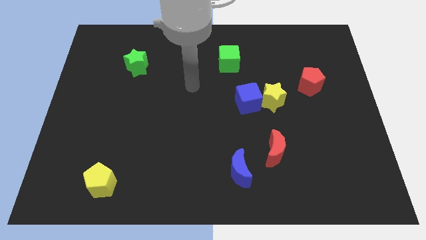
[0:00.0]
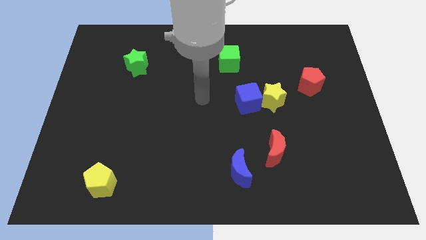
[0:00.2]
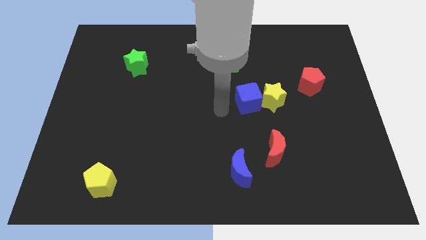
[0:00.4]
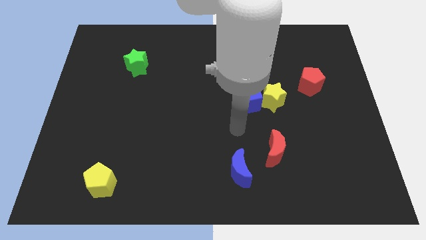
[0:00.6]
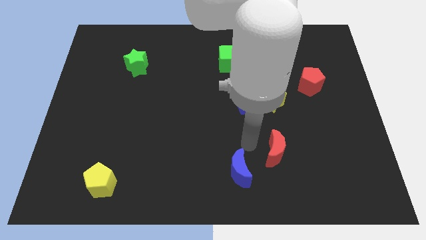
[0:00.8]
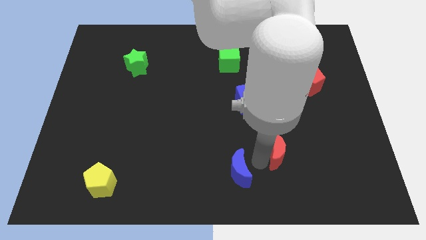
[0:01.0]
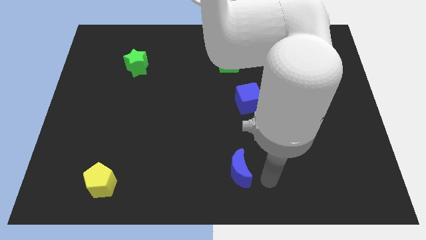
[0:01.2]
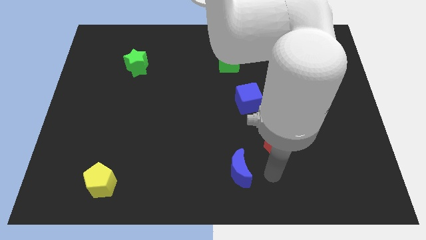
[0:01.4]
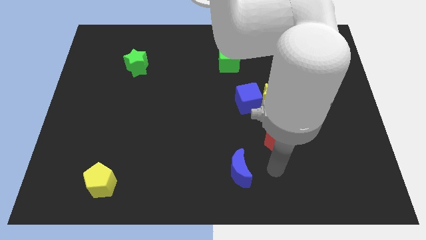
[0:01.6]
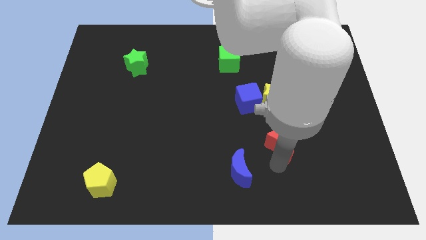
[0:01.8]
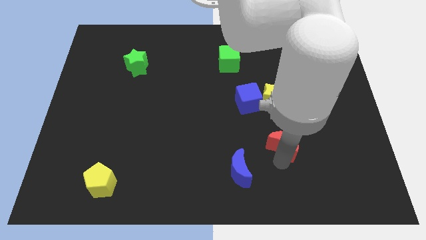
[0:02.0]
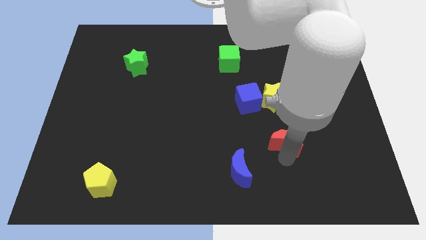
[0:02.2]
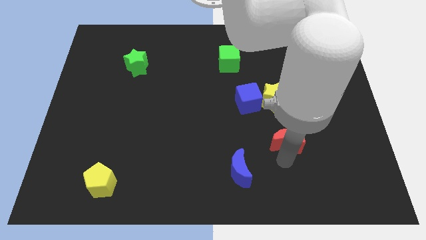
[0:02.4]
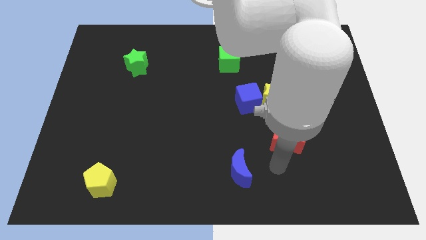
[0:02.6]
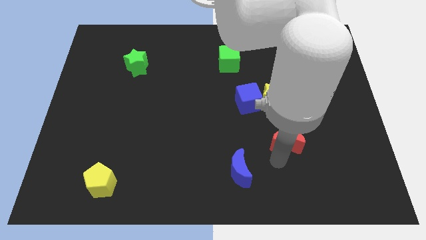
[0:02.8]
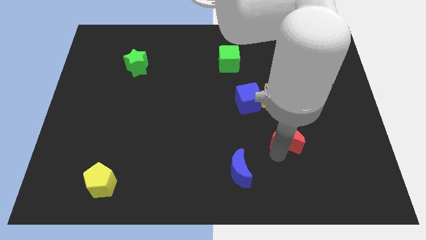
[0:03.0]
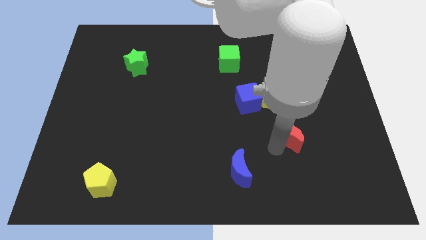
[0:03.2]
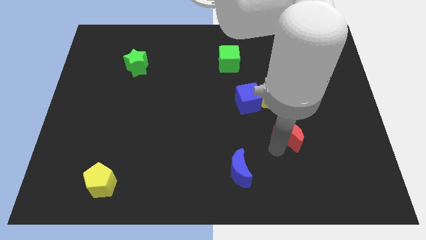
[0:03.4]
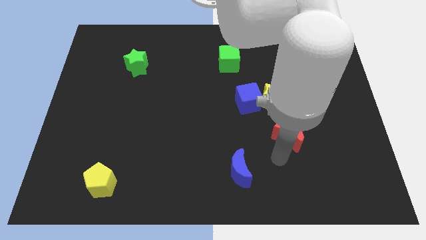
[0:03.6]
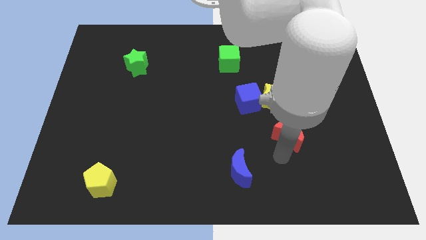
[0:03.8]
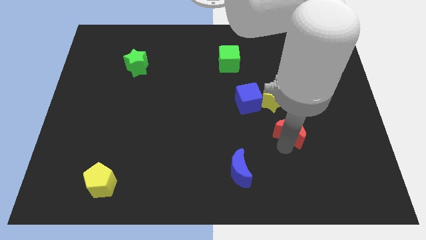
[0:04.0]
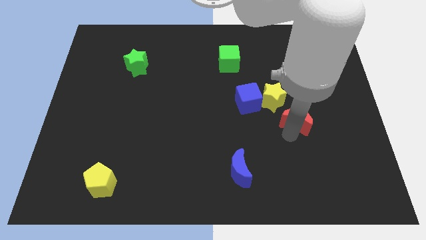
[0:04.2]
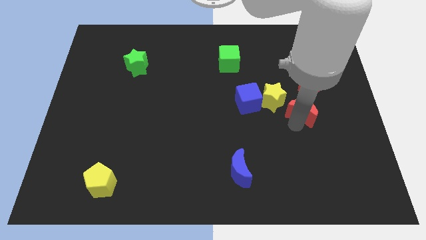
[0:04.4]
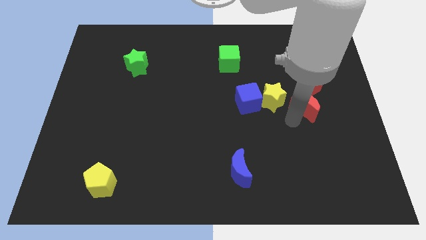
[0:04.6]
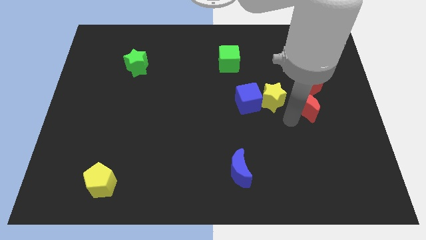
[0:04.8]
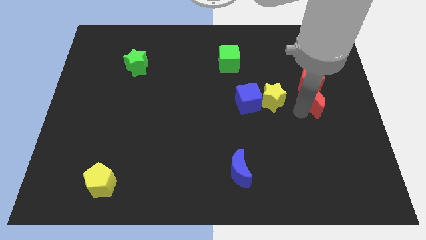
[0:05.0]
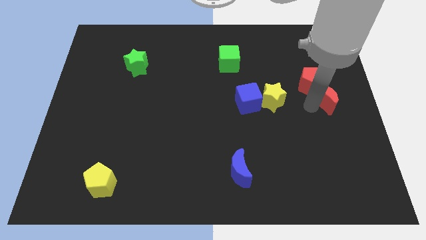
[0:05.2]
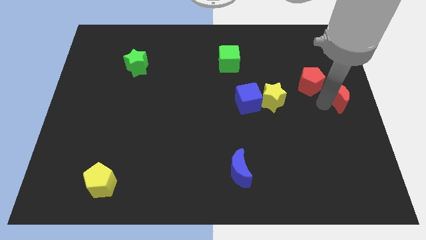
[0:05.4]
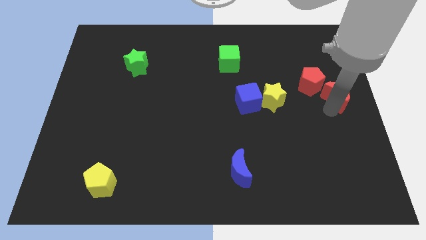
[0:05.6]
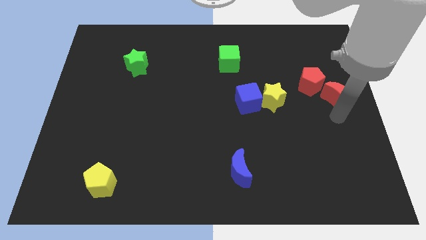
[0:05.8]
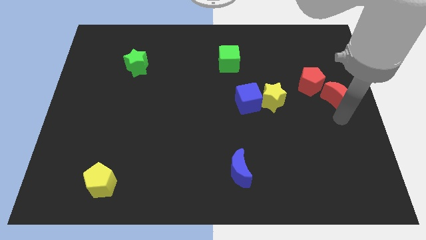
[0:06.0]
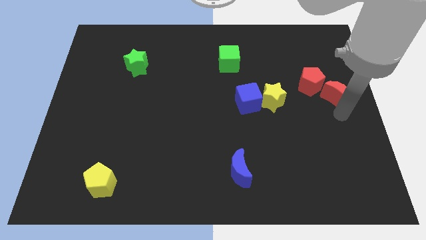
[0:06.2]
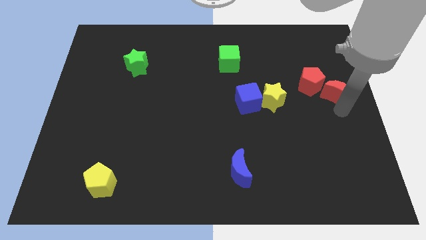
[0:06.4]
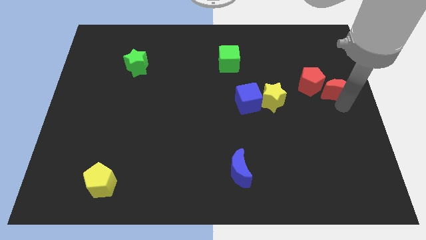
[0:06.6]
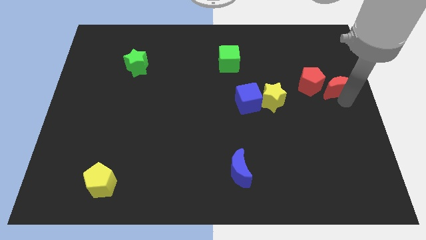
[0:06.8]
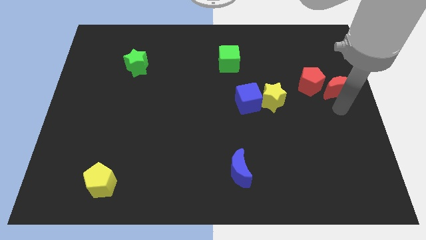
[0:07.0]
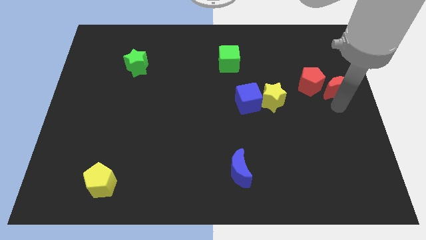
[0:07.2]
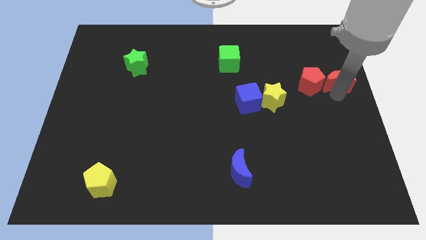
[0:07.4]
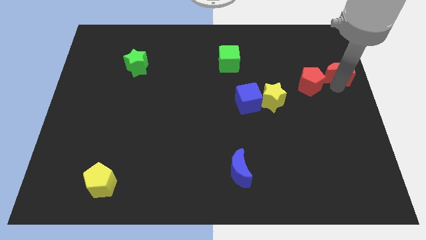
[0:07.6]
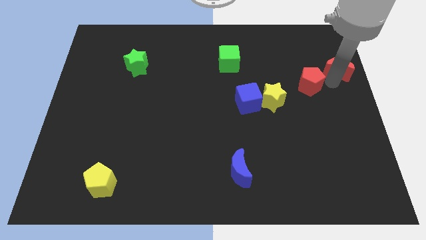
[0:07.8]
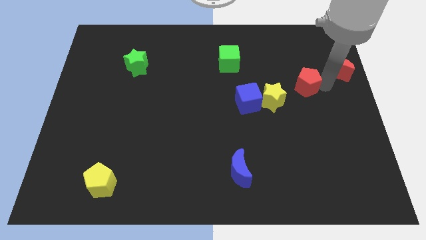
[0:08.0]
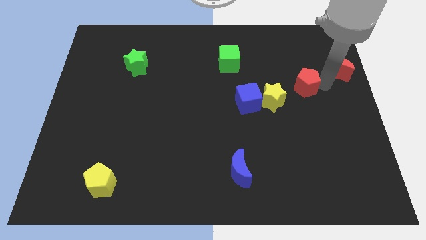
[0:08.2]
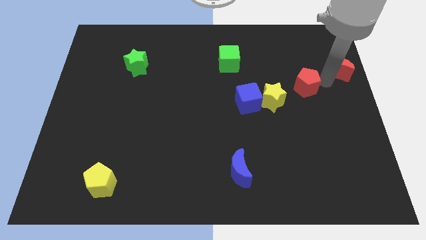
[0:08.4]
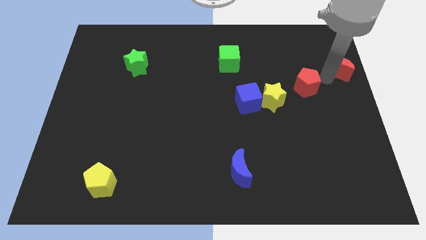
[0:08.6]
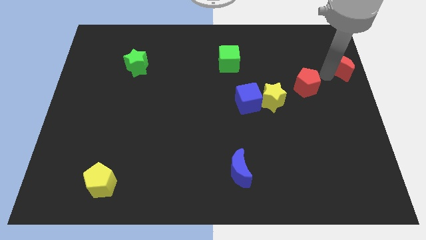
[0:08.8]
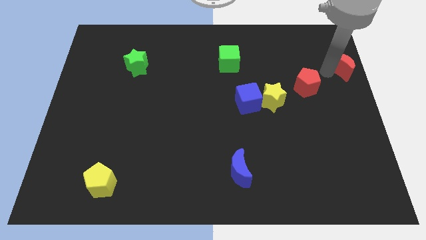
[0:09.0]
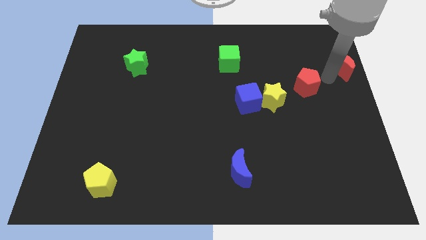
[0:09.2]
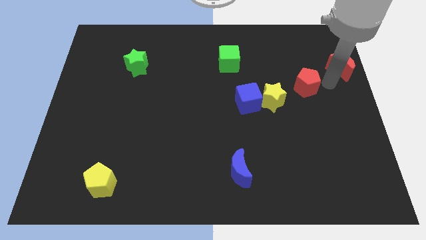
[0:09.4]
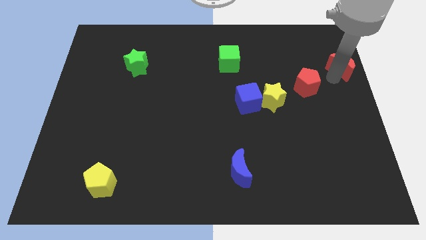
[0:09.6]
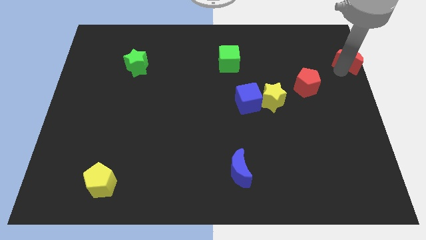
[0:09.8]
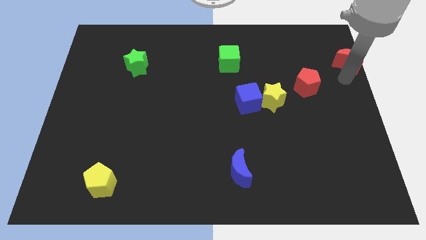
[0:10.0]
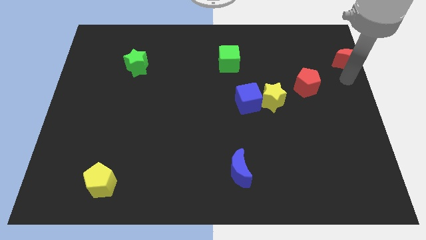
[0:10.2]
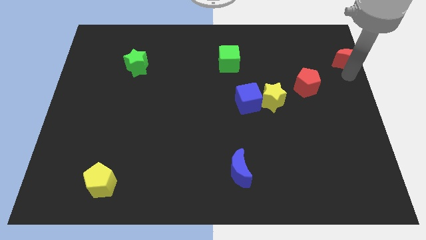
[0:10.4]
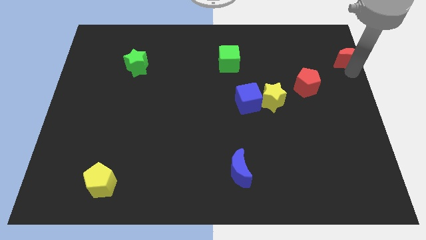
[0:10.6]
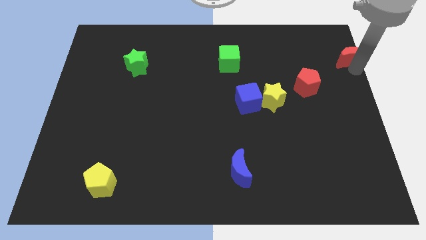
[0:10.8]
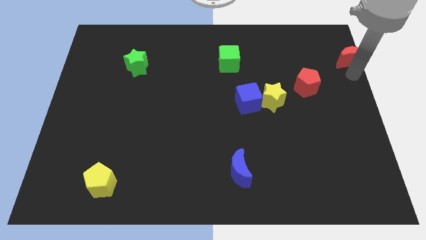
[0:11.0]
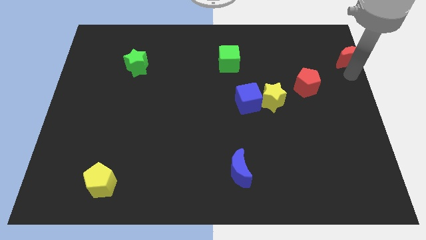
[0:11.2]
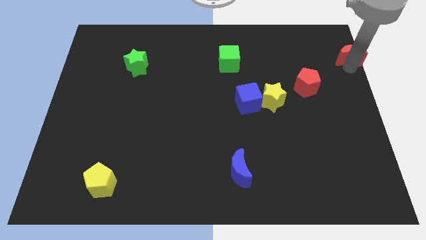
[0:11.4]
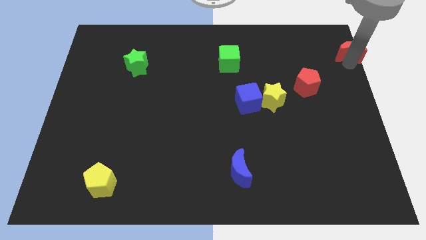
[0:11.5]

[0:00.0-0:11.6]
push the red moon to the top right
